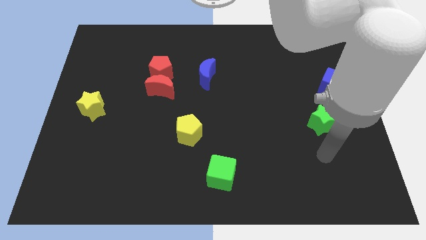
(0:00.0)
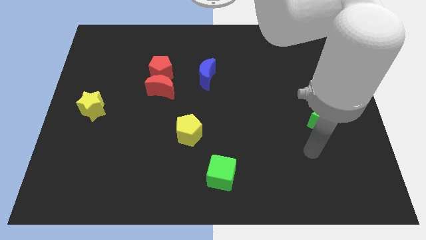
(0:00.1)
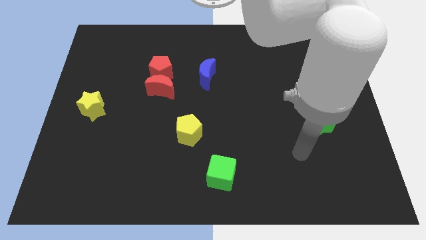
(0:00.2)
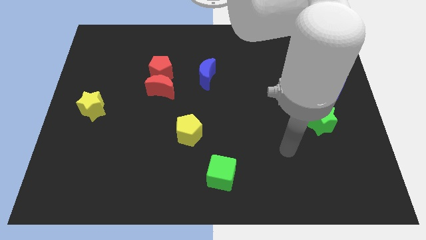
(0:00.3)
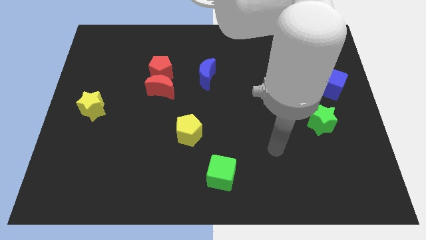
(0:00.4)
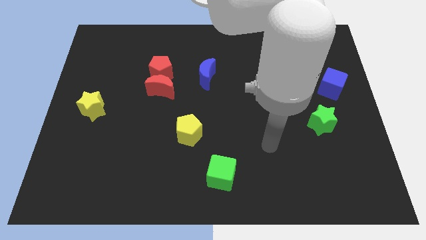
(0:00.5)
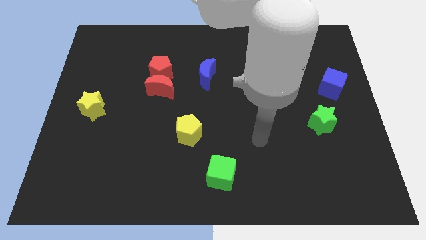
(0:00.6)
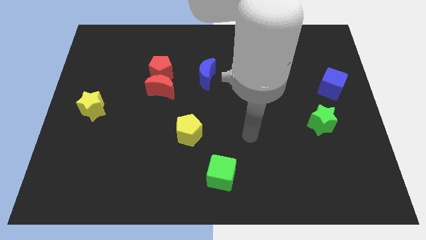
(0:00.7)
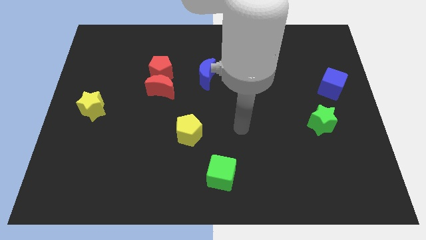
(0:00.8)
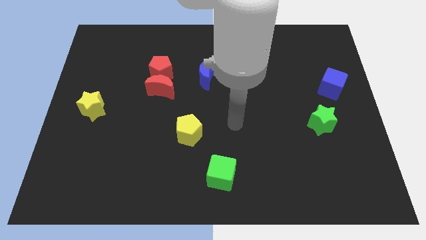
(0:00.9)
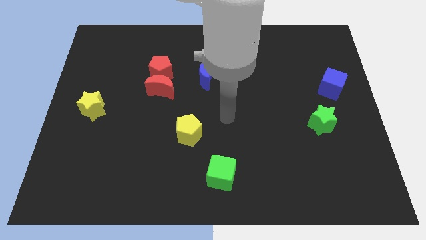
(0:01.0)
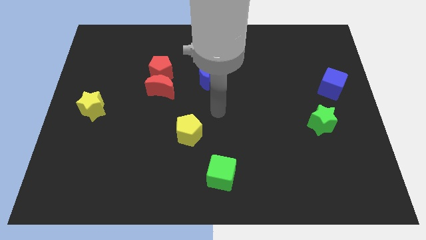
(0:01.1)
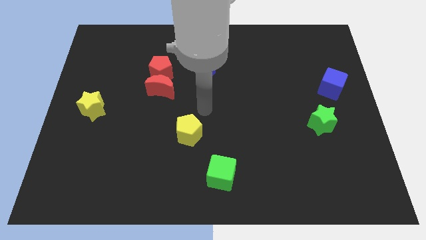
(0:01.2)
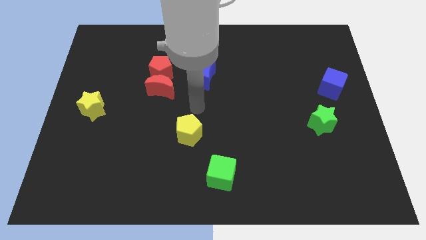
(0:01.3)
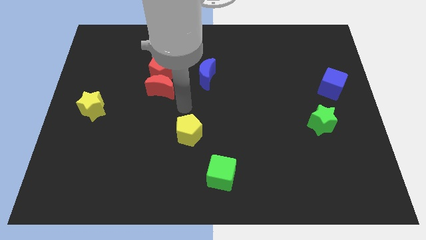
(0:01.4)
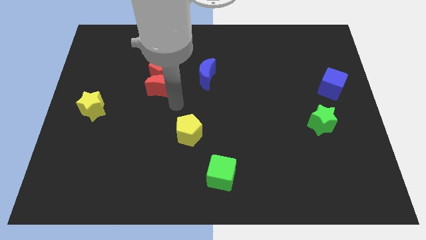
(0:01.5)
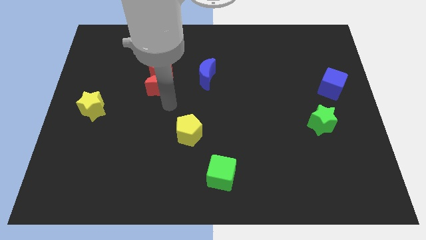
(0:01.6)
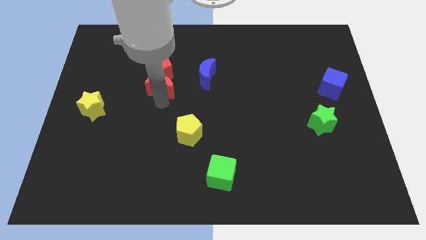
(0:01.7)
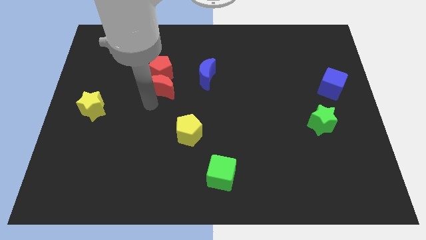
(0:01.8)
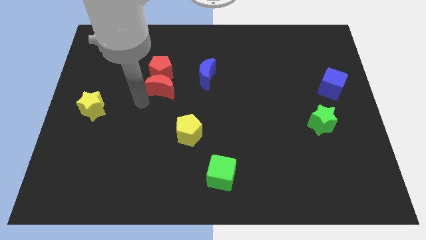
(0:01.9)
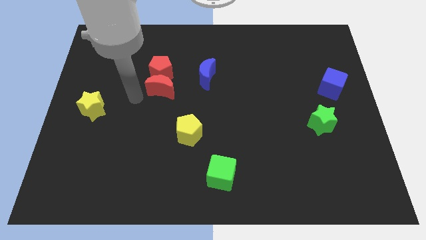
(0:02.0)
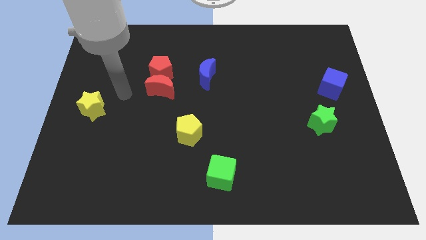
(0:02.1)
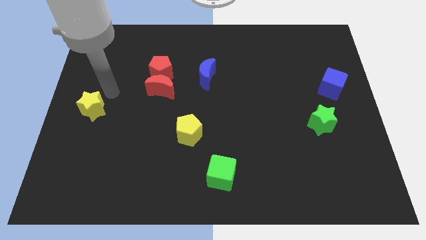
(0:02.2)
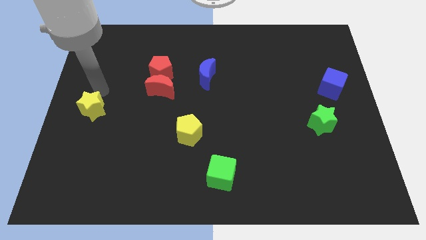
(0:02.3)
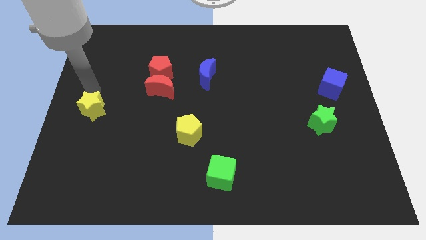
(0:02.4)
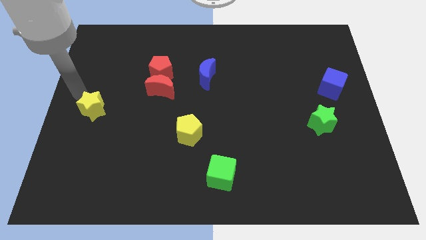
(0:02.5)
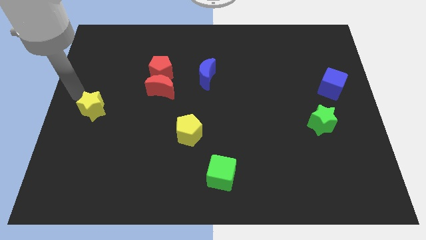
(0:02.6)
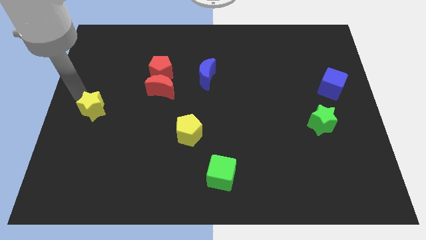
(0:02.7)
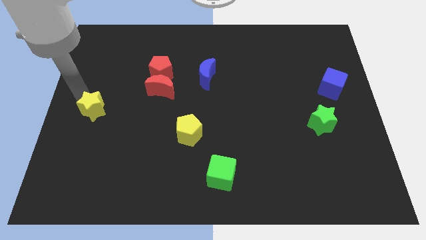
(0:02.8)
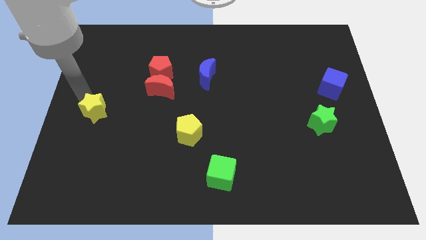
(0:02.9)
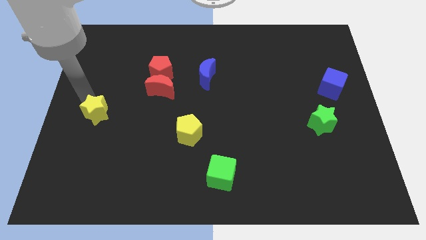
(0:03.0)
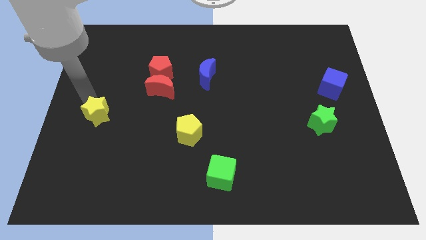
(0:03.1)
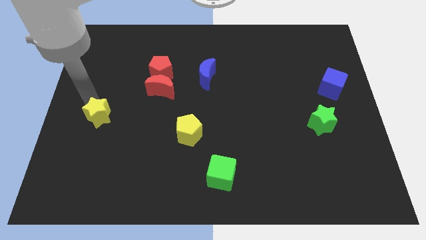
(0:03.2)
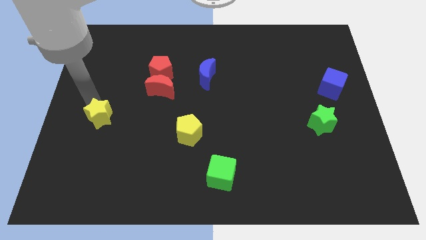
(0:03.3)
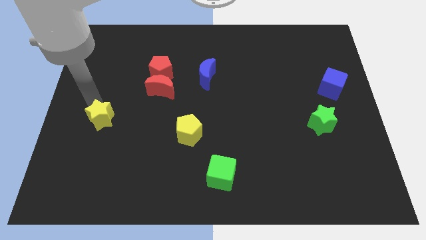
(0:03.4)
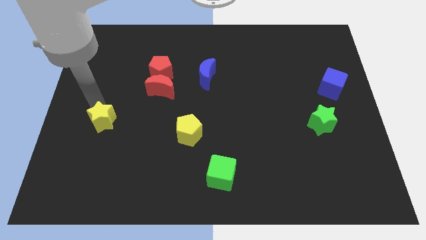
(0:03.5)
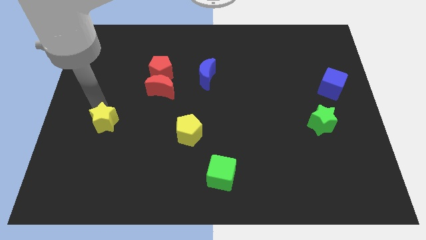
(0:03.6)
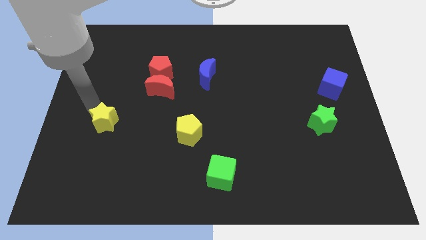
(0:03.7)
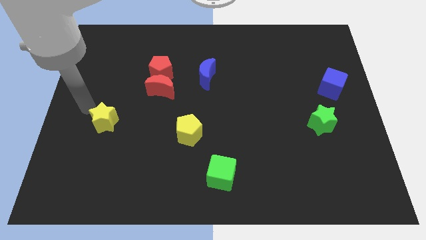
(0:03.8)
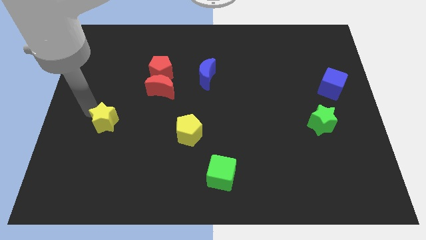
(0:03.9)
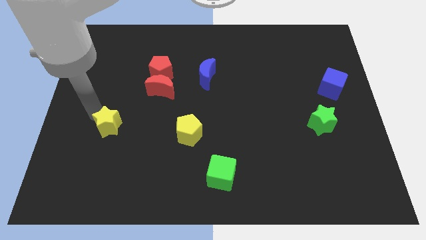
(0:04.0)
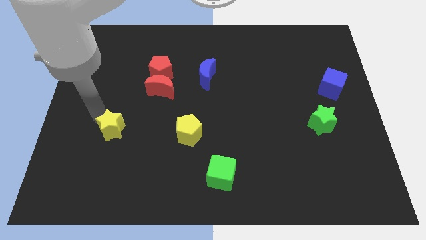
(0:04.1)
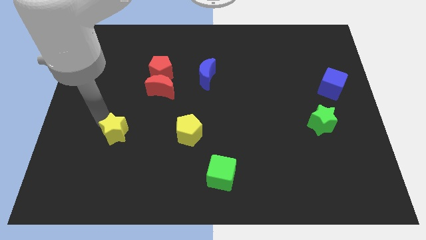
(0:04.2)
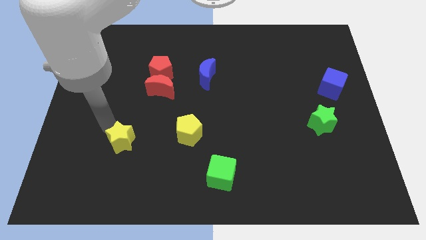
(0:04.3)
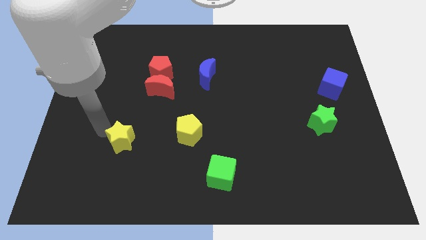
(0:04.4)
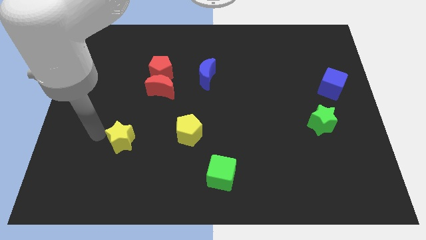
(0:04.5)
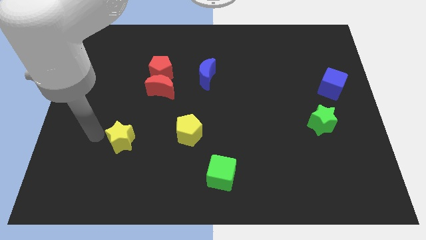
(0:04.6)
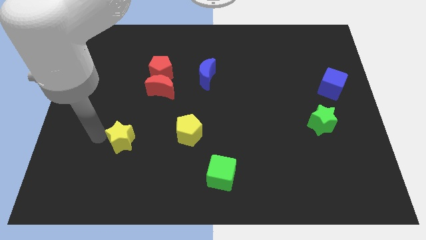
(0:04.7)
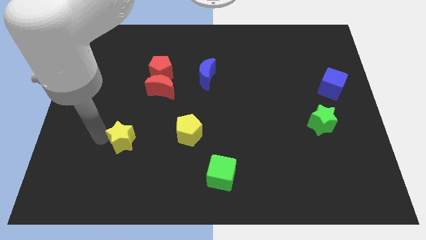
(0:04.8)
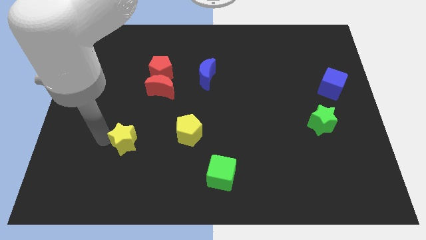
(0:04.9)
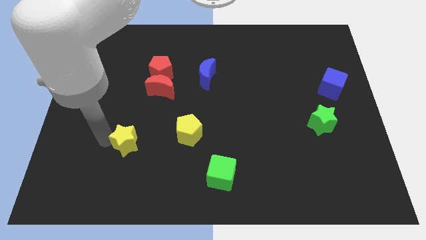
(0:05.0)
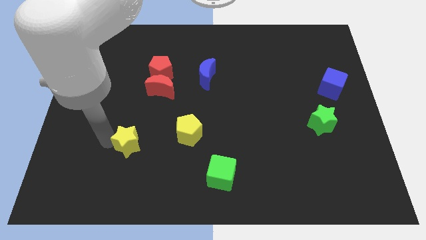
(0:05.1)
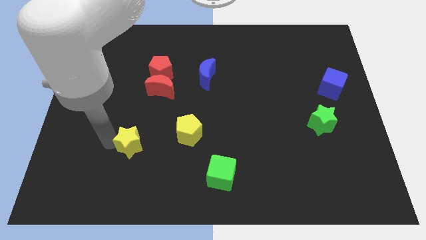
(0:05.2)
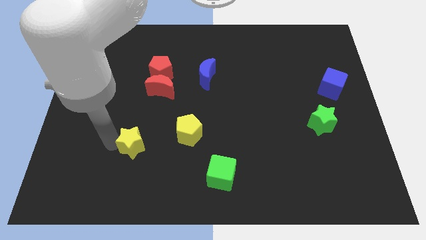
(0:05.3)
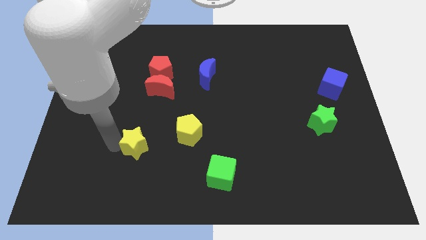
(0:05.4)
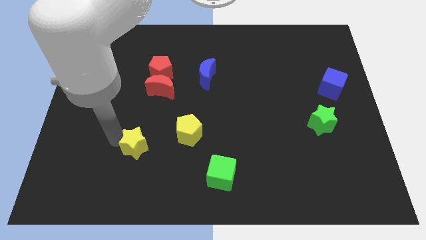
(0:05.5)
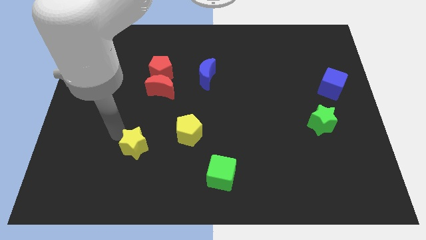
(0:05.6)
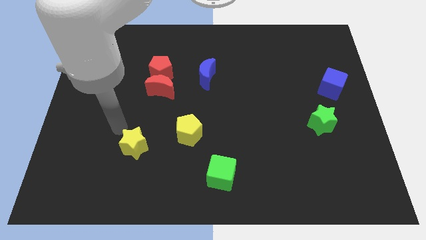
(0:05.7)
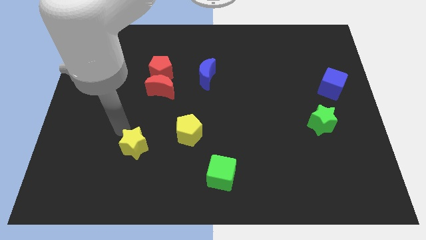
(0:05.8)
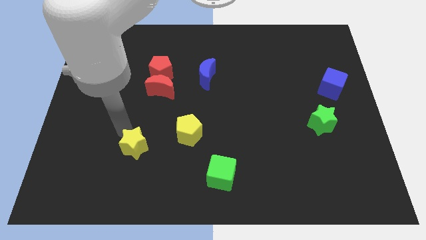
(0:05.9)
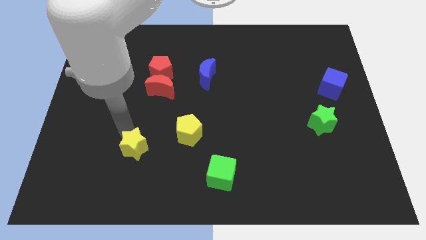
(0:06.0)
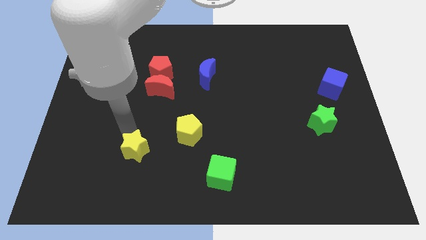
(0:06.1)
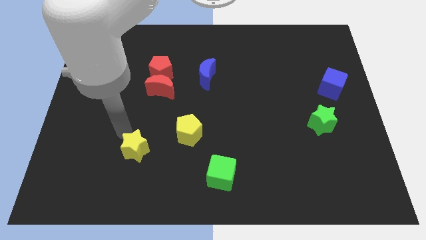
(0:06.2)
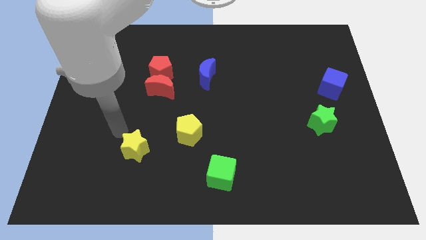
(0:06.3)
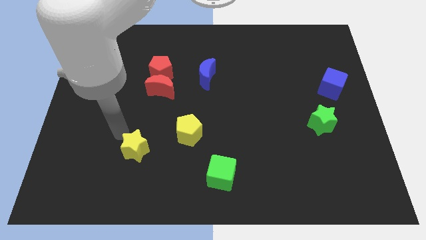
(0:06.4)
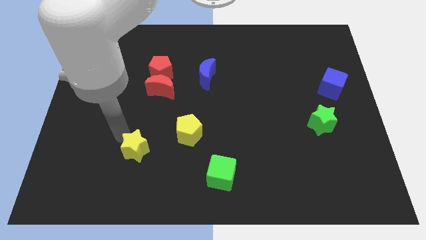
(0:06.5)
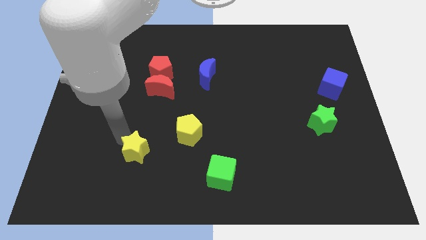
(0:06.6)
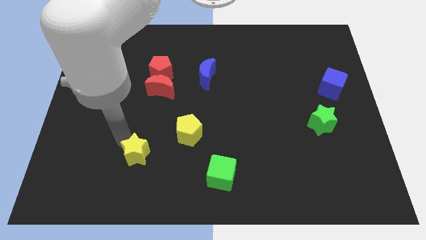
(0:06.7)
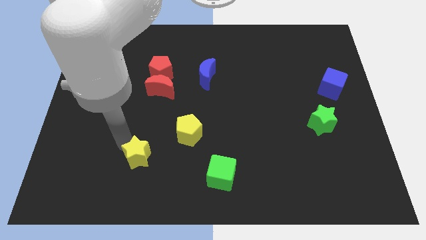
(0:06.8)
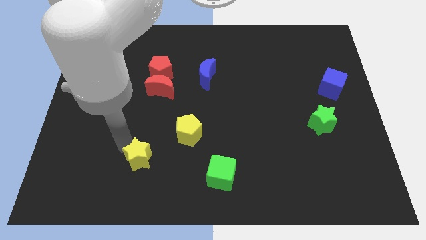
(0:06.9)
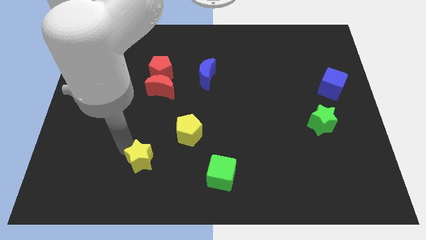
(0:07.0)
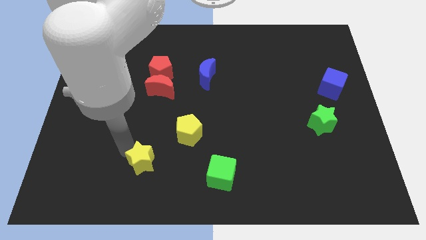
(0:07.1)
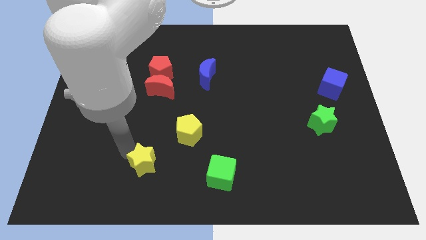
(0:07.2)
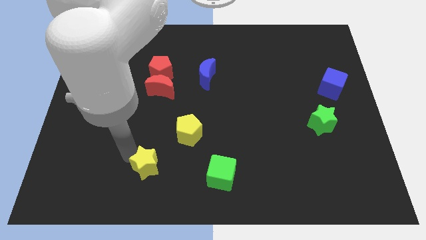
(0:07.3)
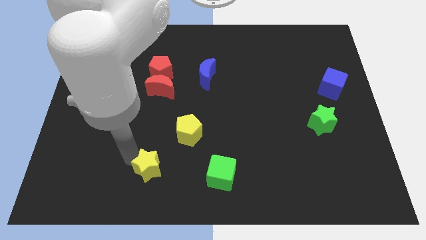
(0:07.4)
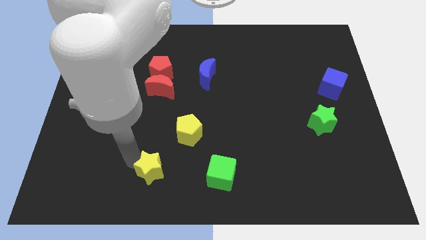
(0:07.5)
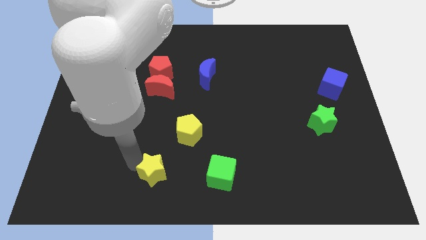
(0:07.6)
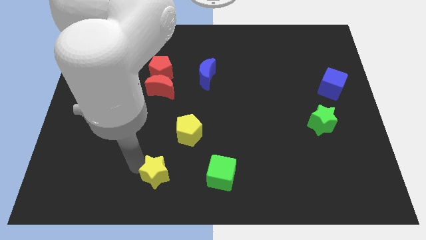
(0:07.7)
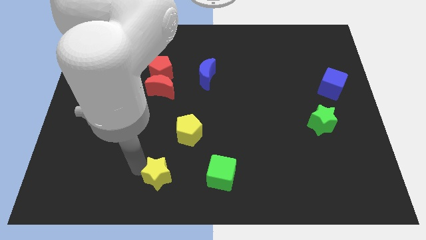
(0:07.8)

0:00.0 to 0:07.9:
move the yellow star to the bottom
